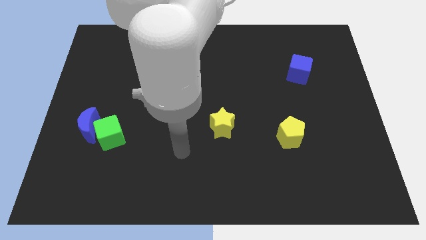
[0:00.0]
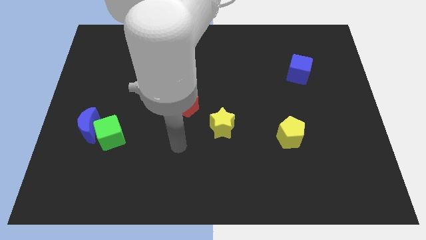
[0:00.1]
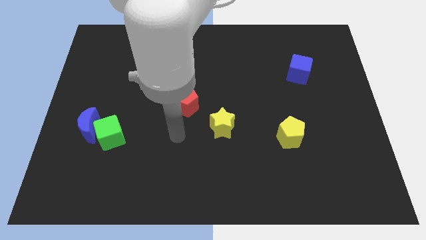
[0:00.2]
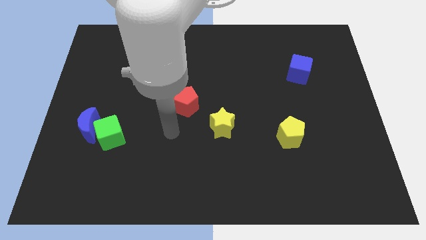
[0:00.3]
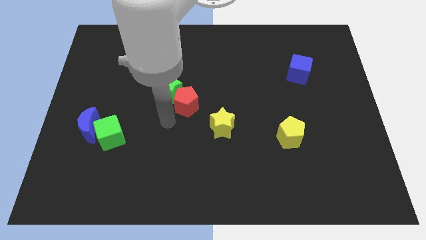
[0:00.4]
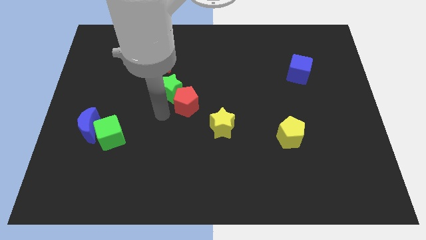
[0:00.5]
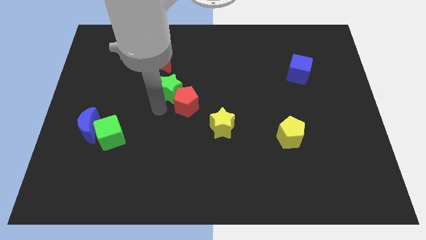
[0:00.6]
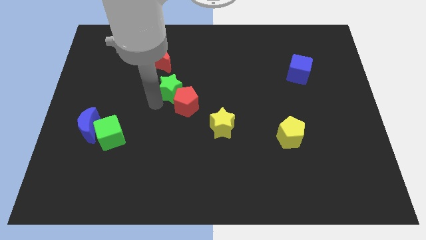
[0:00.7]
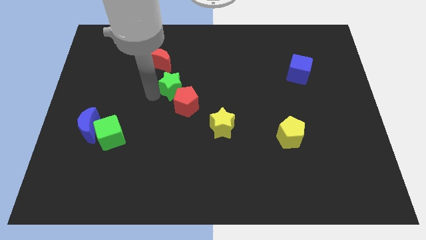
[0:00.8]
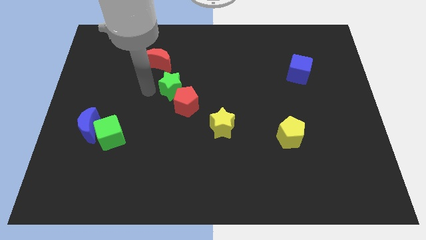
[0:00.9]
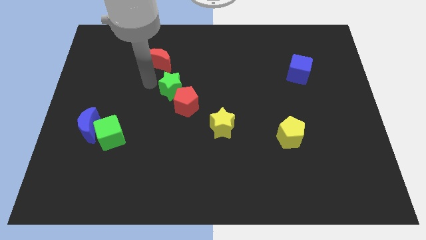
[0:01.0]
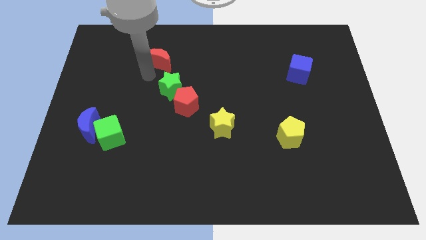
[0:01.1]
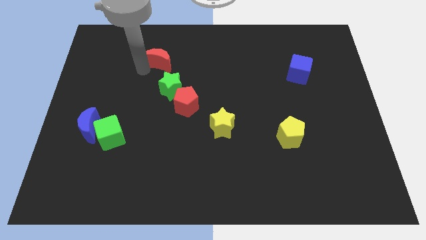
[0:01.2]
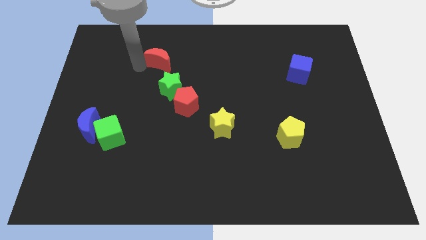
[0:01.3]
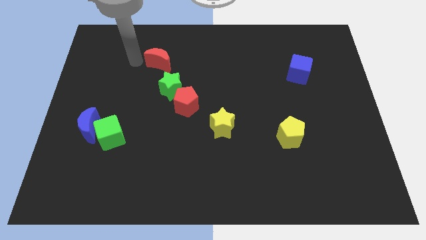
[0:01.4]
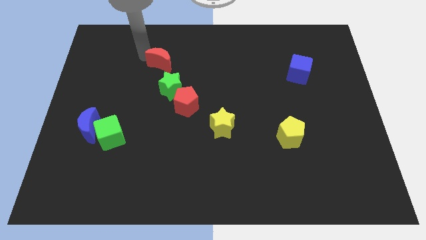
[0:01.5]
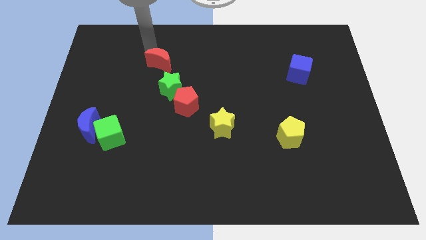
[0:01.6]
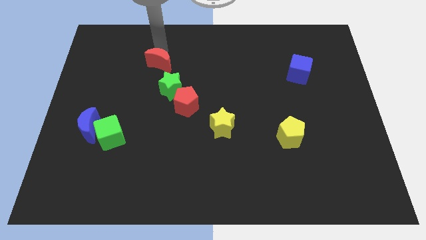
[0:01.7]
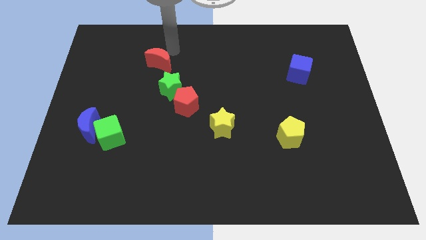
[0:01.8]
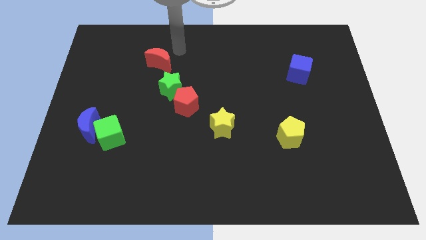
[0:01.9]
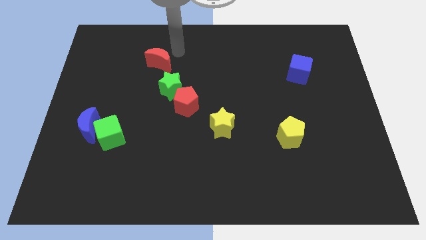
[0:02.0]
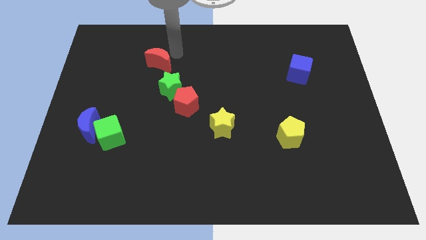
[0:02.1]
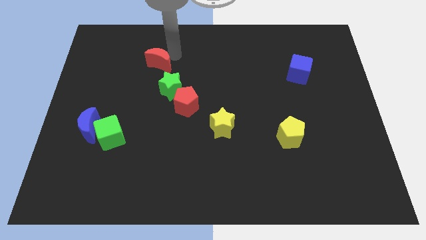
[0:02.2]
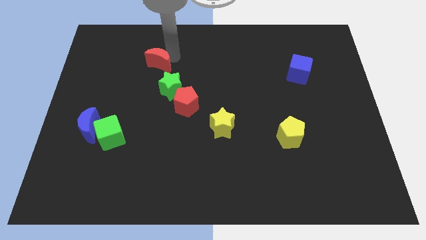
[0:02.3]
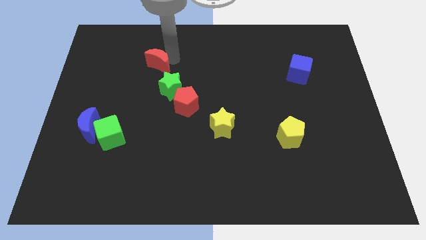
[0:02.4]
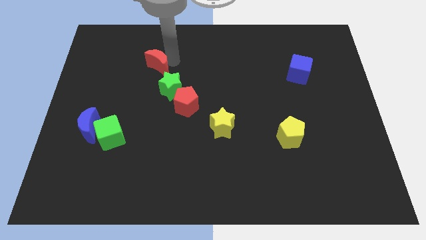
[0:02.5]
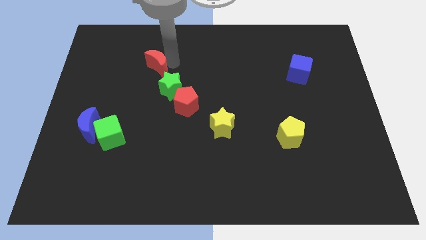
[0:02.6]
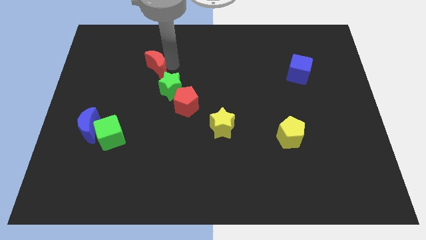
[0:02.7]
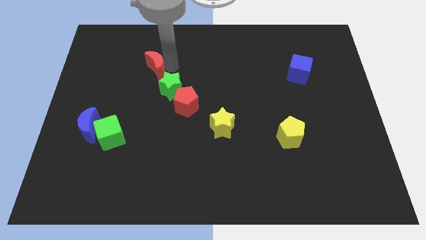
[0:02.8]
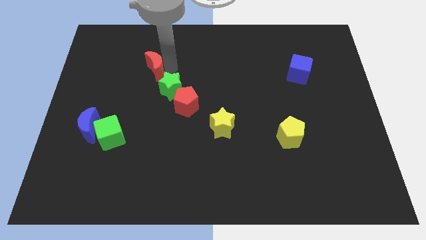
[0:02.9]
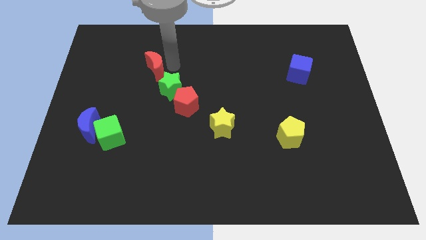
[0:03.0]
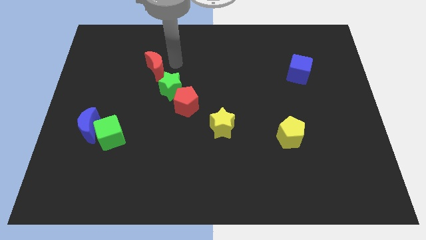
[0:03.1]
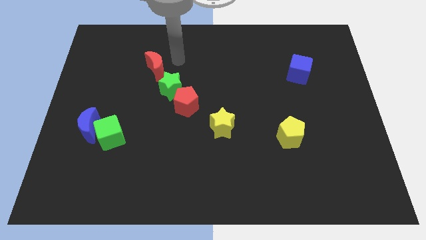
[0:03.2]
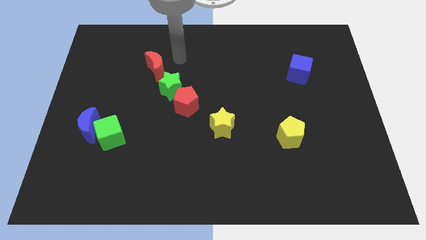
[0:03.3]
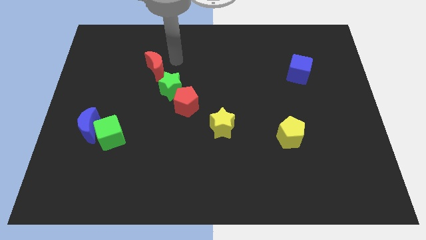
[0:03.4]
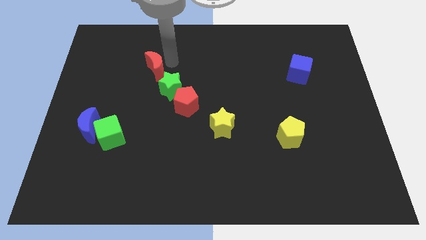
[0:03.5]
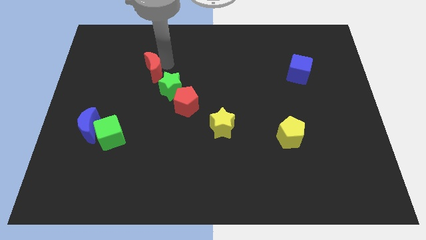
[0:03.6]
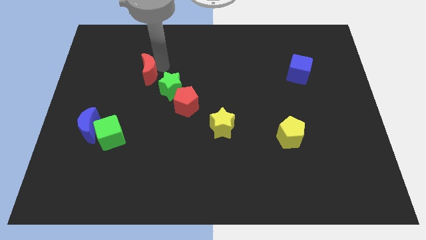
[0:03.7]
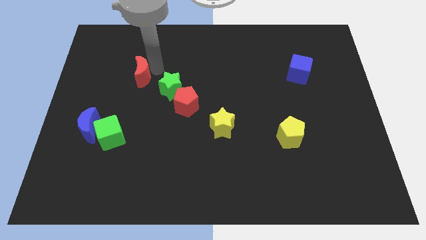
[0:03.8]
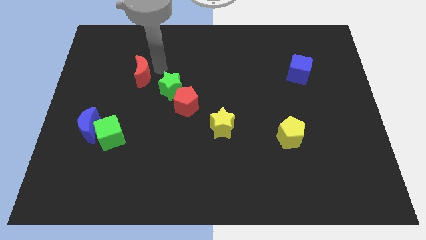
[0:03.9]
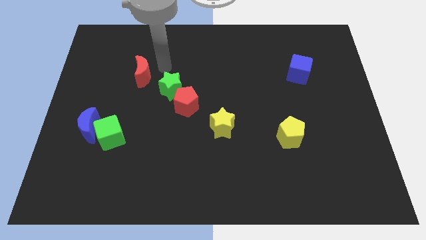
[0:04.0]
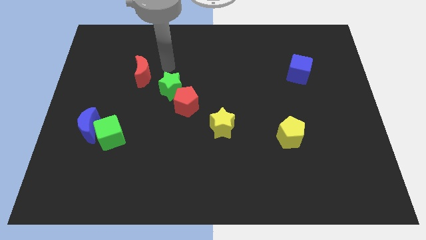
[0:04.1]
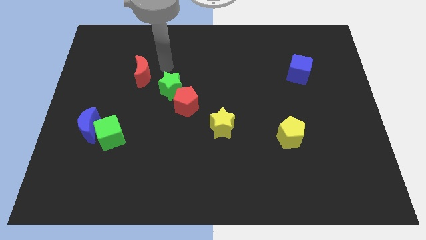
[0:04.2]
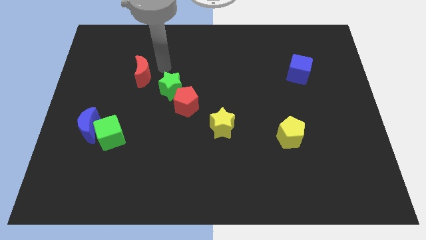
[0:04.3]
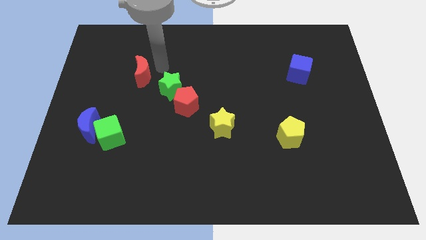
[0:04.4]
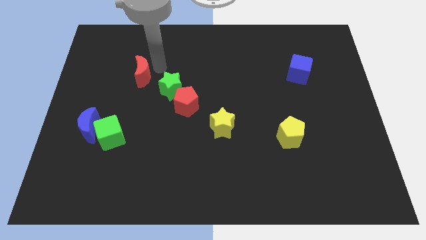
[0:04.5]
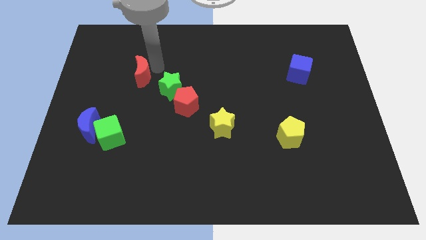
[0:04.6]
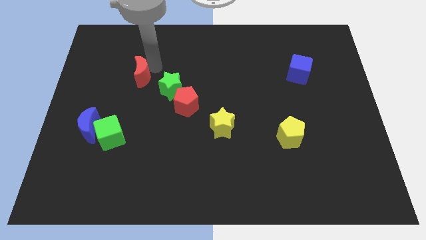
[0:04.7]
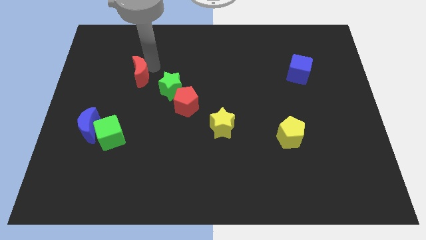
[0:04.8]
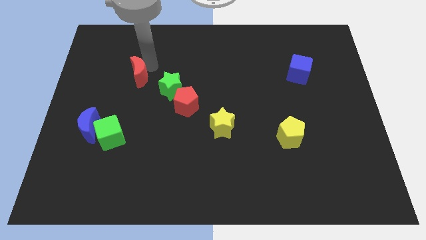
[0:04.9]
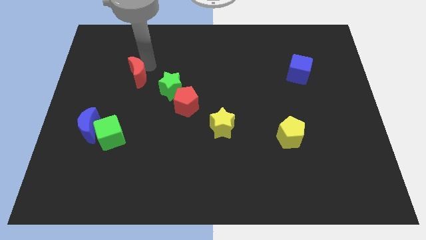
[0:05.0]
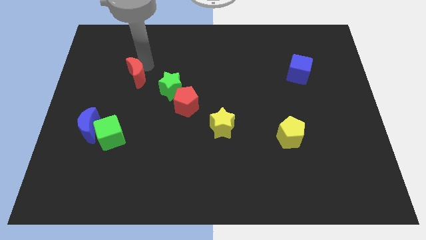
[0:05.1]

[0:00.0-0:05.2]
slightly push the red moon down and left diagonally

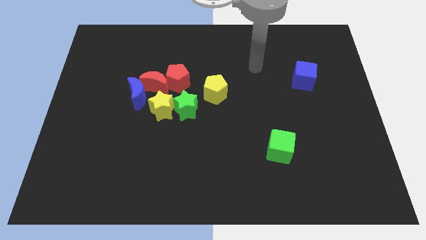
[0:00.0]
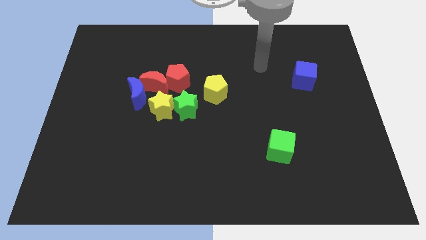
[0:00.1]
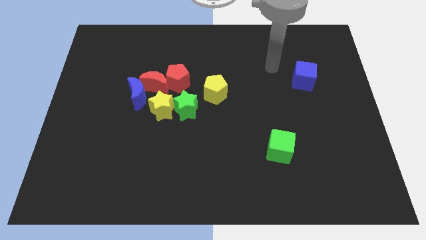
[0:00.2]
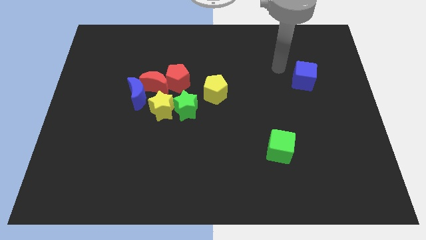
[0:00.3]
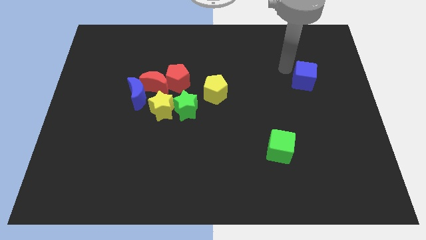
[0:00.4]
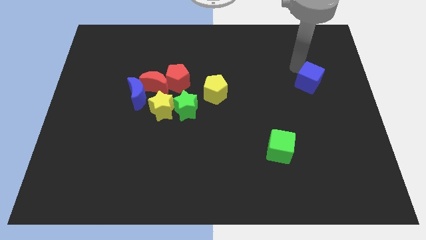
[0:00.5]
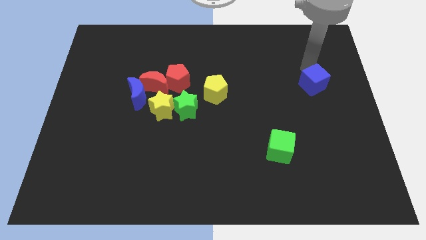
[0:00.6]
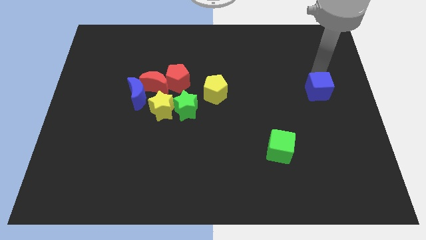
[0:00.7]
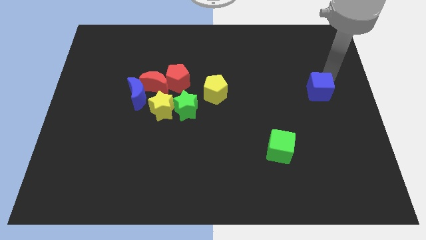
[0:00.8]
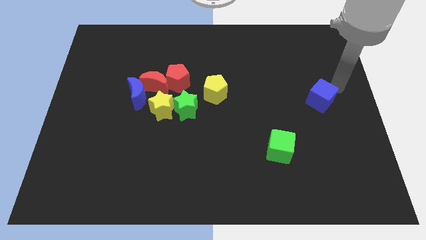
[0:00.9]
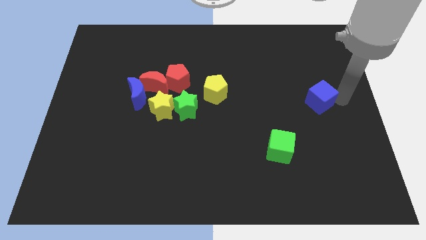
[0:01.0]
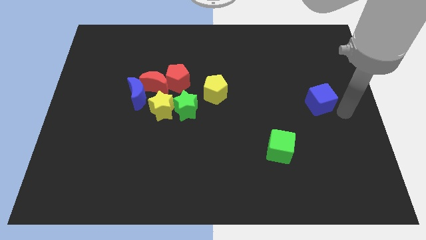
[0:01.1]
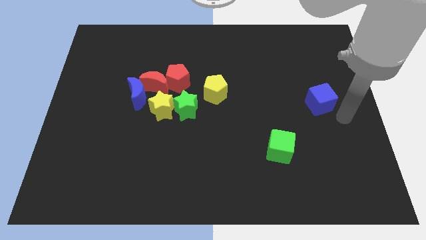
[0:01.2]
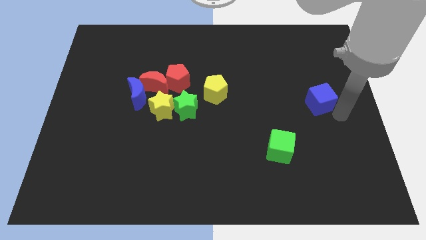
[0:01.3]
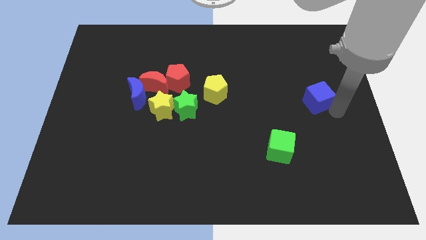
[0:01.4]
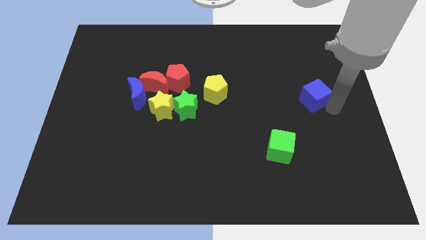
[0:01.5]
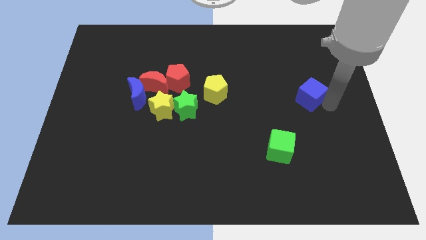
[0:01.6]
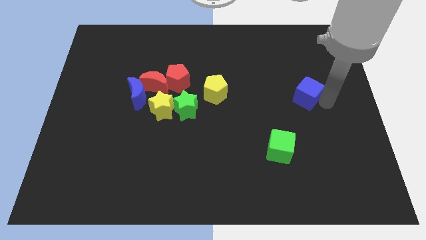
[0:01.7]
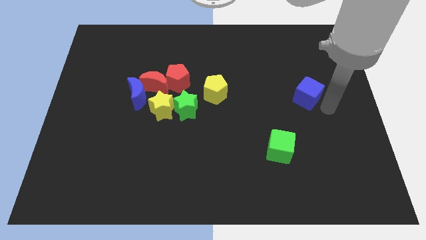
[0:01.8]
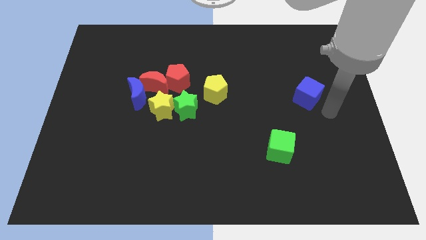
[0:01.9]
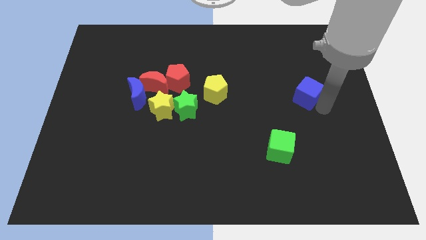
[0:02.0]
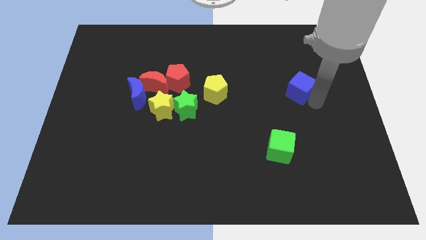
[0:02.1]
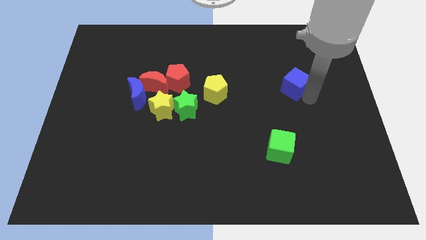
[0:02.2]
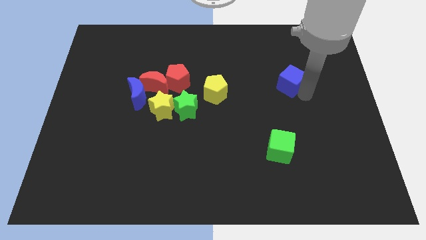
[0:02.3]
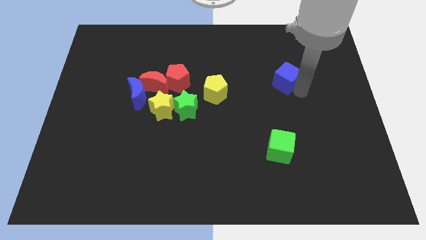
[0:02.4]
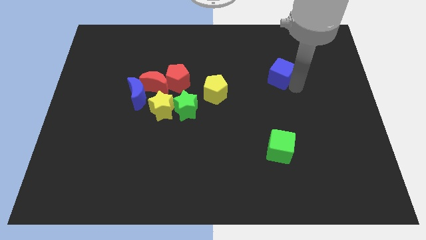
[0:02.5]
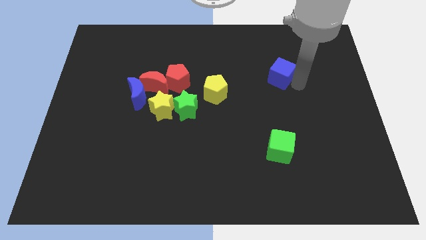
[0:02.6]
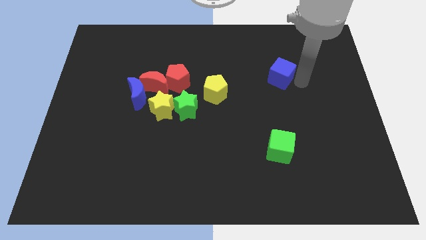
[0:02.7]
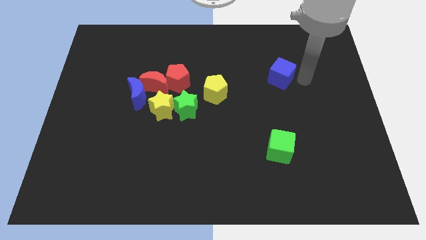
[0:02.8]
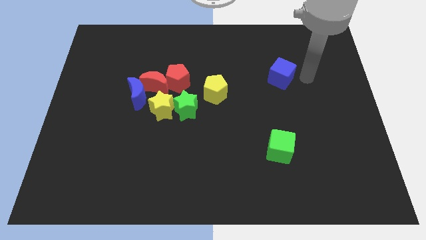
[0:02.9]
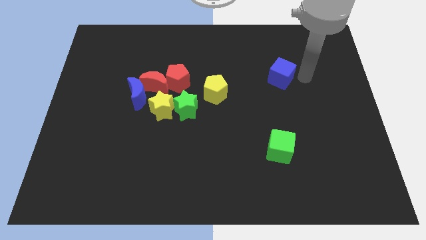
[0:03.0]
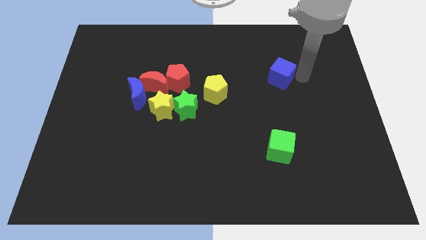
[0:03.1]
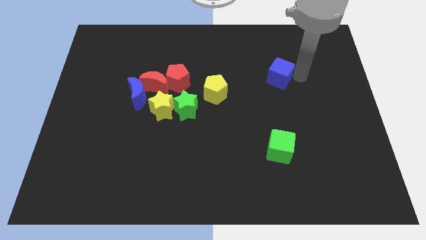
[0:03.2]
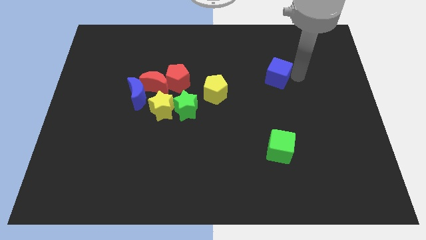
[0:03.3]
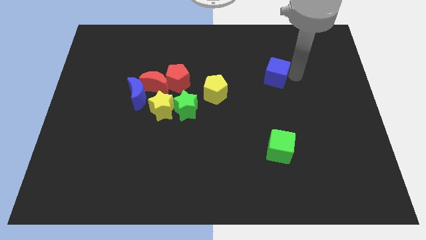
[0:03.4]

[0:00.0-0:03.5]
push the blue cube a little bit left
